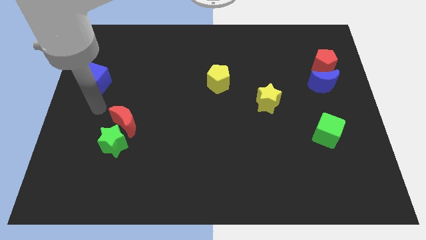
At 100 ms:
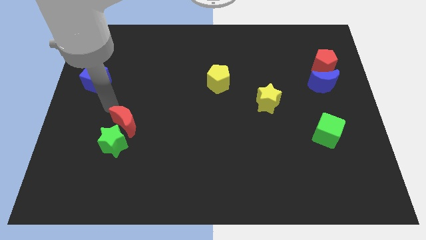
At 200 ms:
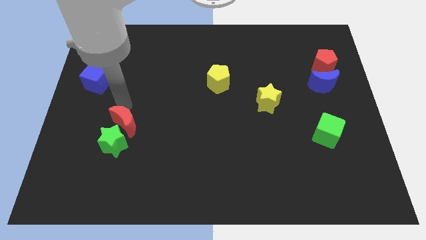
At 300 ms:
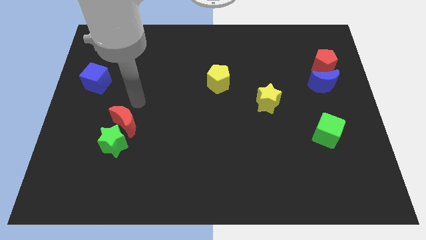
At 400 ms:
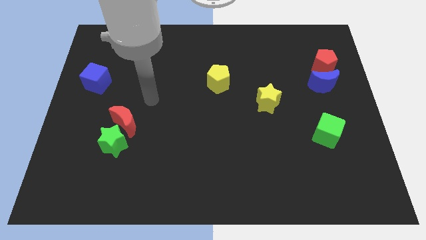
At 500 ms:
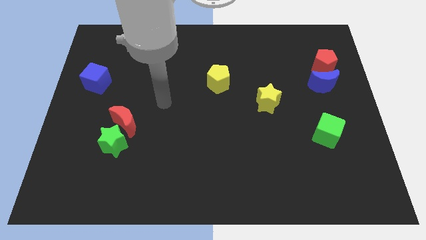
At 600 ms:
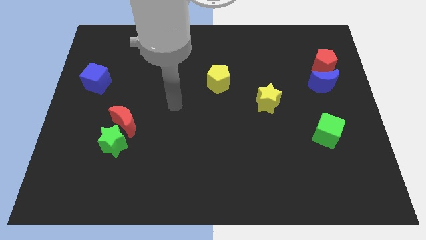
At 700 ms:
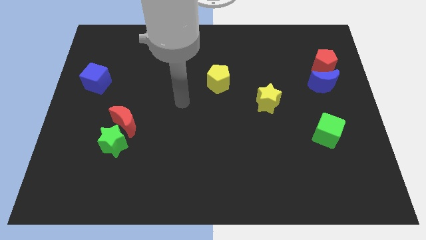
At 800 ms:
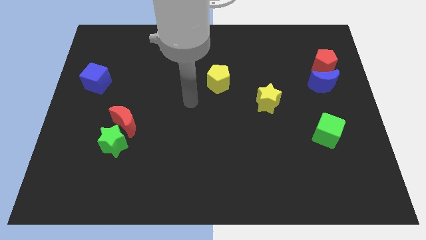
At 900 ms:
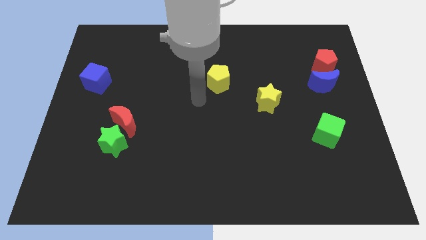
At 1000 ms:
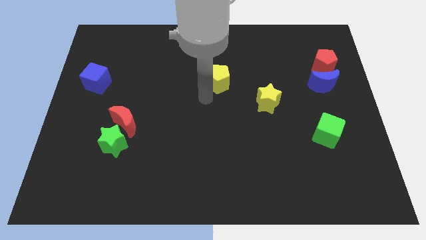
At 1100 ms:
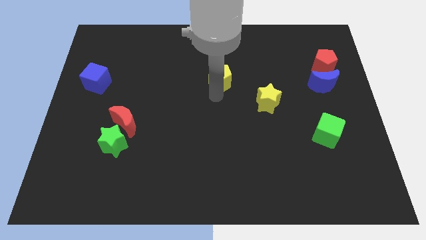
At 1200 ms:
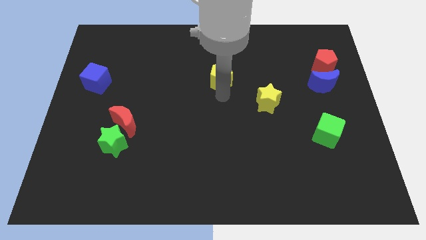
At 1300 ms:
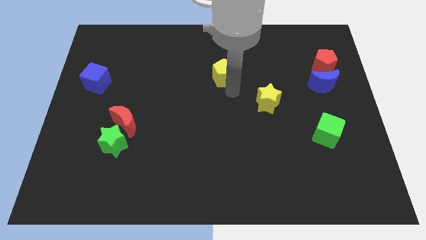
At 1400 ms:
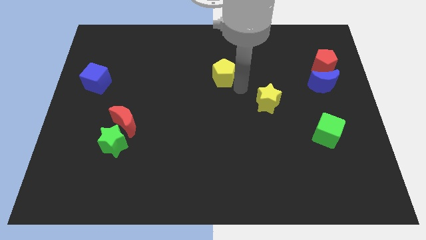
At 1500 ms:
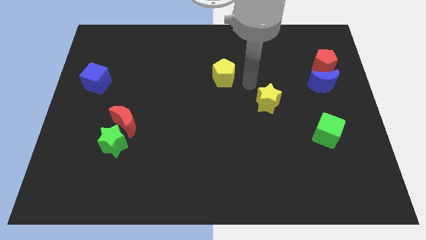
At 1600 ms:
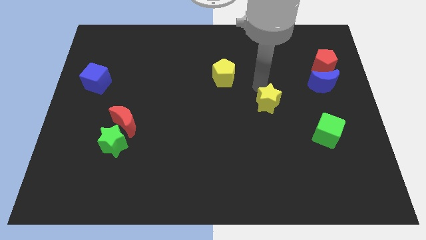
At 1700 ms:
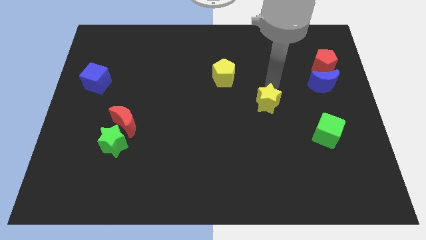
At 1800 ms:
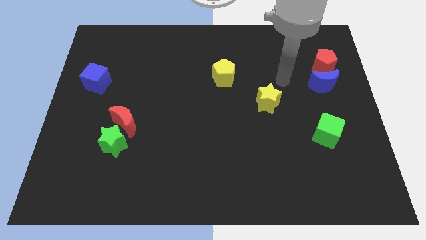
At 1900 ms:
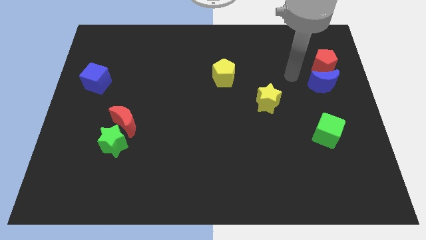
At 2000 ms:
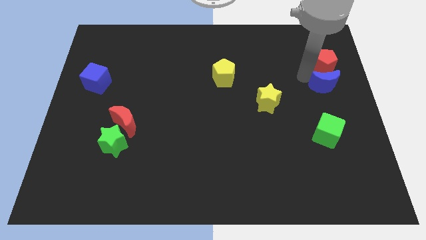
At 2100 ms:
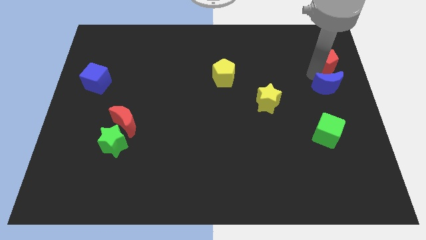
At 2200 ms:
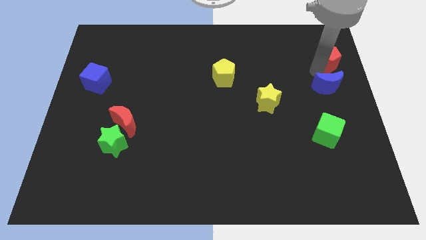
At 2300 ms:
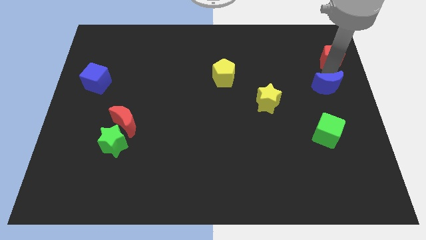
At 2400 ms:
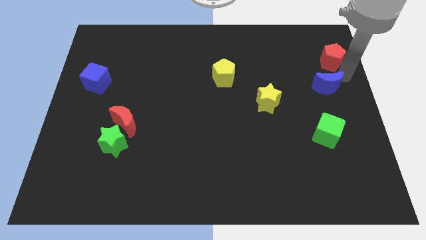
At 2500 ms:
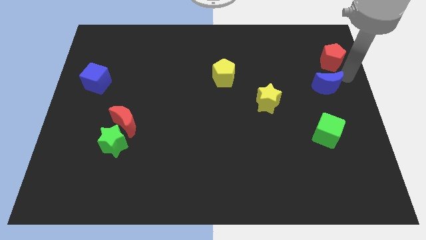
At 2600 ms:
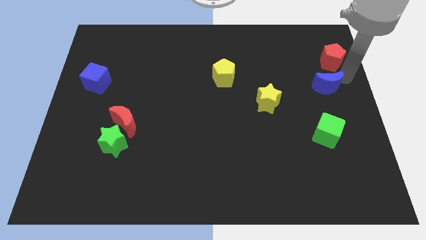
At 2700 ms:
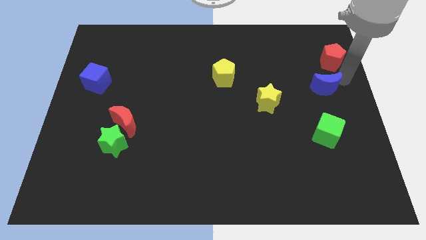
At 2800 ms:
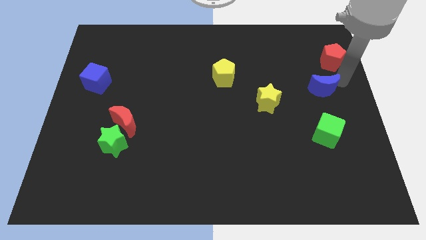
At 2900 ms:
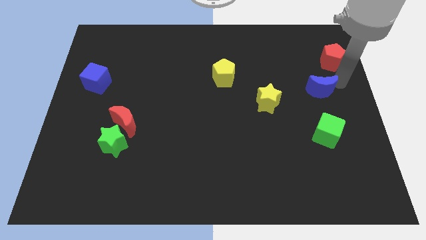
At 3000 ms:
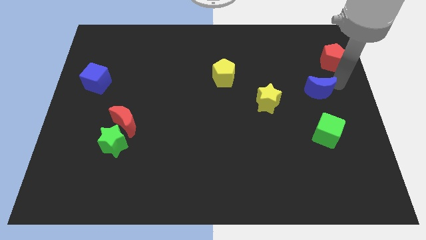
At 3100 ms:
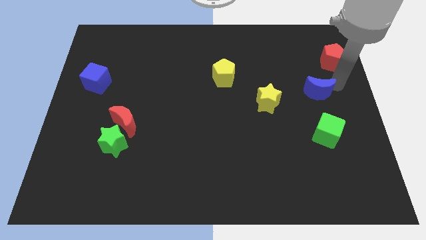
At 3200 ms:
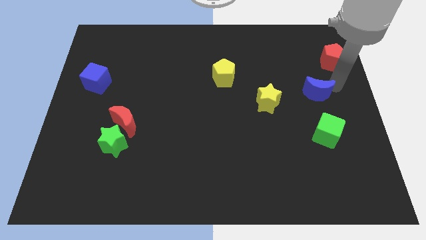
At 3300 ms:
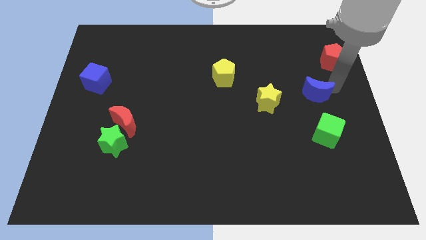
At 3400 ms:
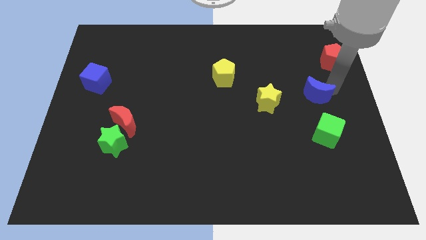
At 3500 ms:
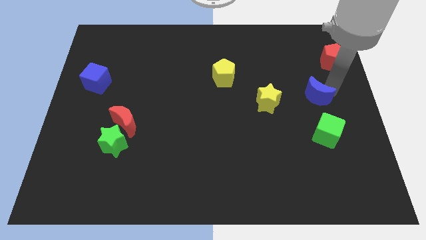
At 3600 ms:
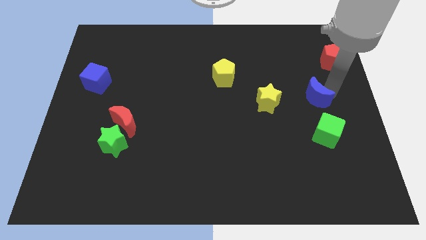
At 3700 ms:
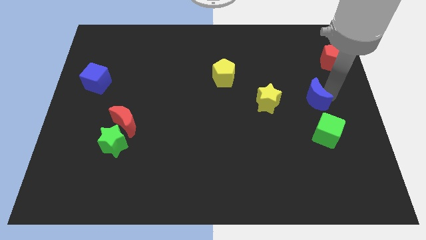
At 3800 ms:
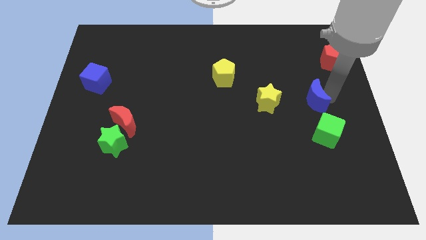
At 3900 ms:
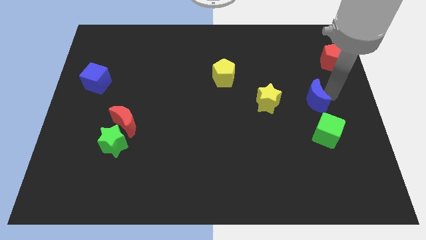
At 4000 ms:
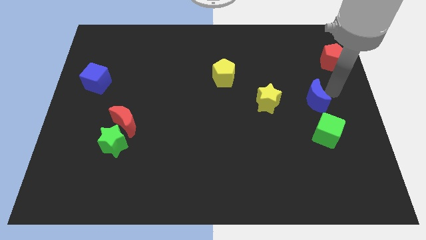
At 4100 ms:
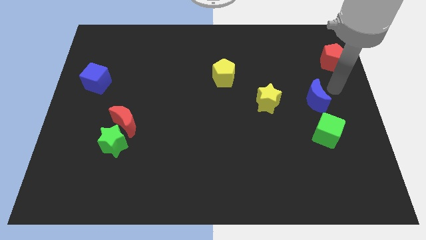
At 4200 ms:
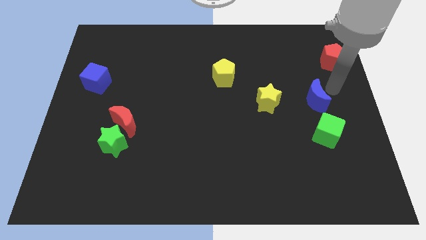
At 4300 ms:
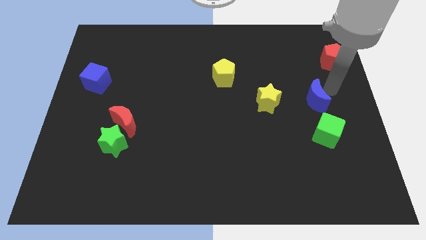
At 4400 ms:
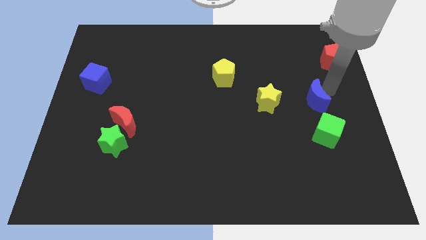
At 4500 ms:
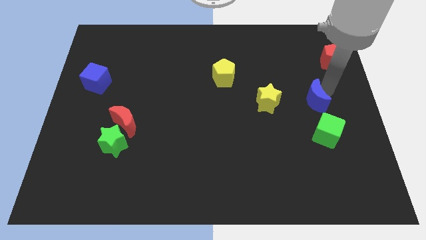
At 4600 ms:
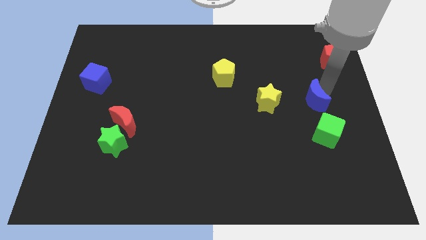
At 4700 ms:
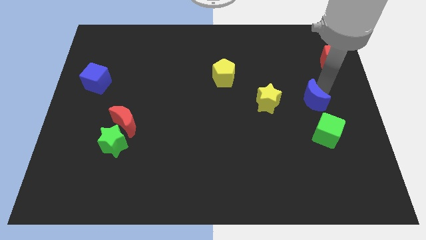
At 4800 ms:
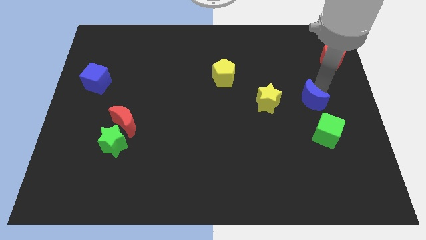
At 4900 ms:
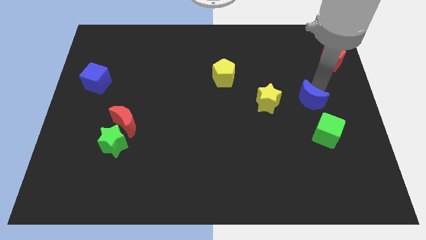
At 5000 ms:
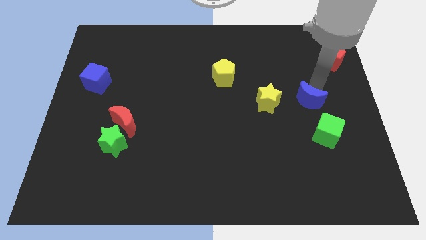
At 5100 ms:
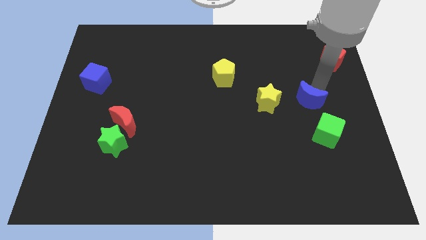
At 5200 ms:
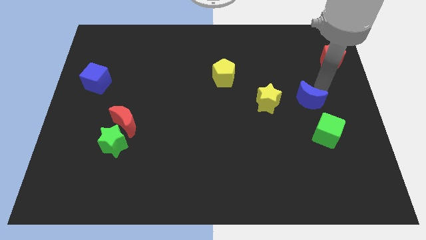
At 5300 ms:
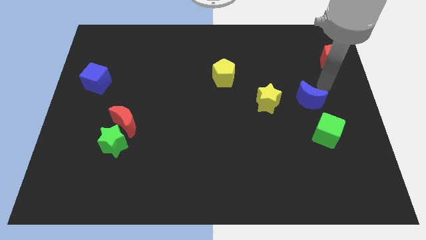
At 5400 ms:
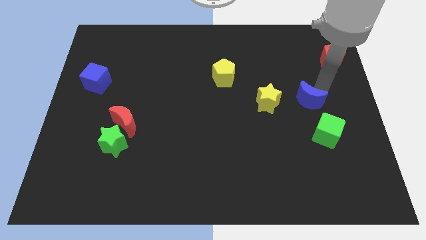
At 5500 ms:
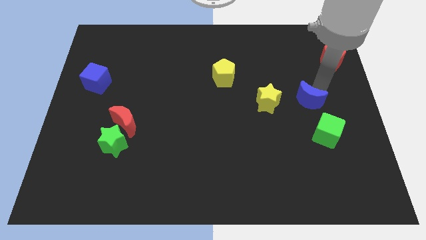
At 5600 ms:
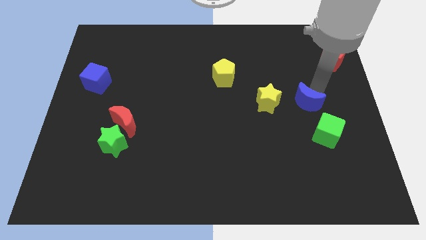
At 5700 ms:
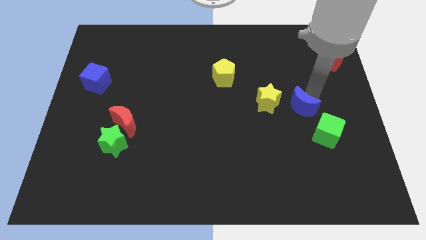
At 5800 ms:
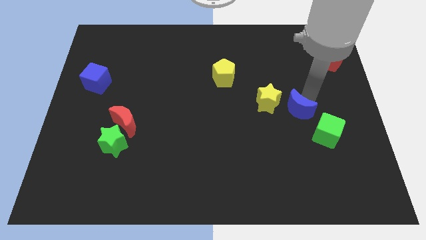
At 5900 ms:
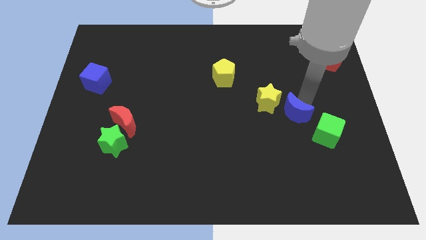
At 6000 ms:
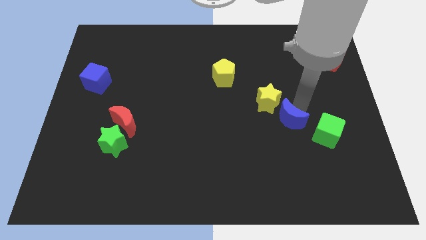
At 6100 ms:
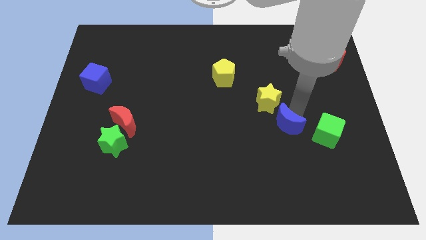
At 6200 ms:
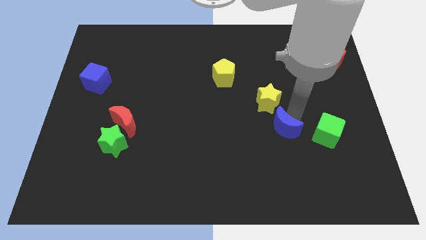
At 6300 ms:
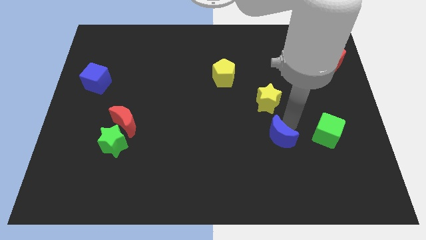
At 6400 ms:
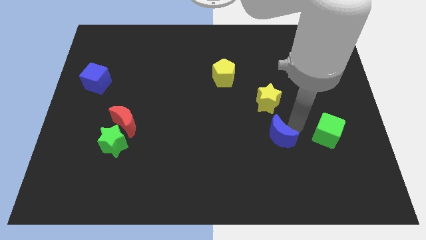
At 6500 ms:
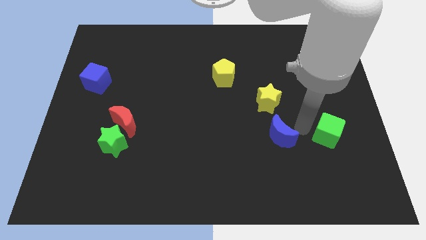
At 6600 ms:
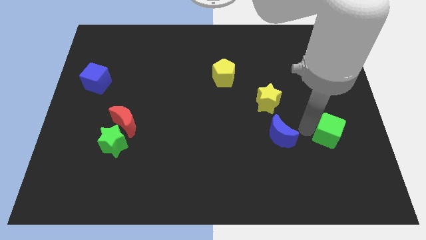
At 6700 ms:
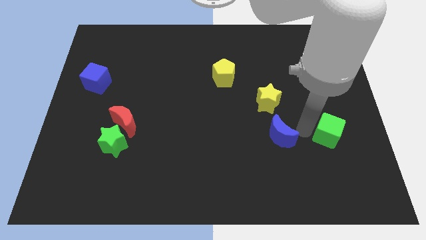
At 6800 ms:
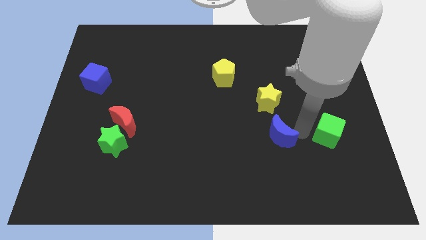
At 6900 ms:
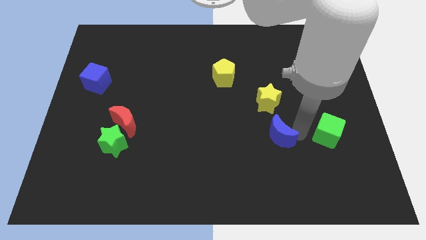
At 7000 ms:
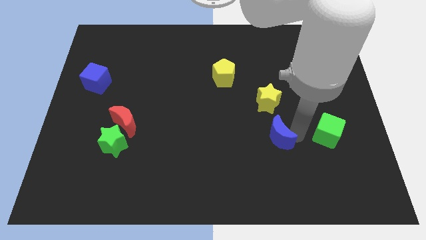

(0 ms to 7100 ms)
slide the blue moon downwards and to the left diagonally

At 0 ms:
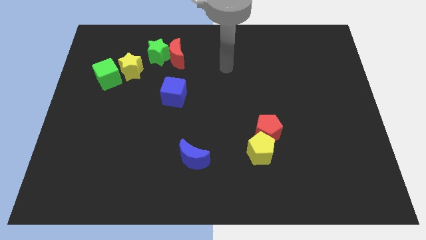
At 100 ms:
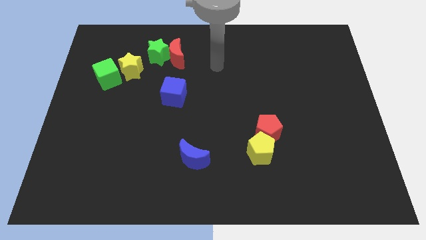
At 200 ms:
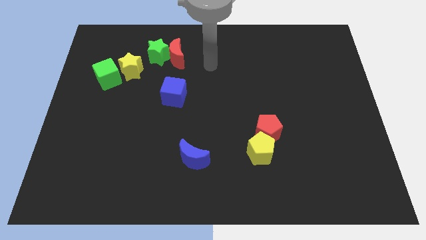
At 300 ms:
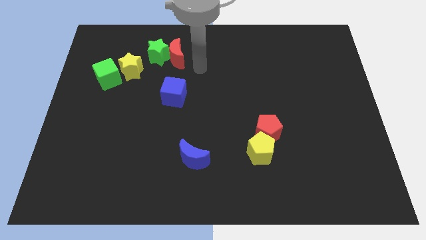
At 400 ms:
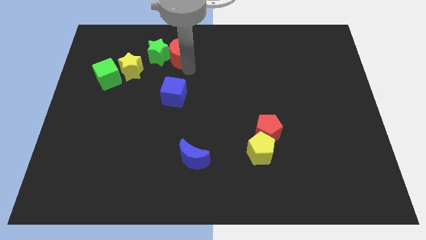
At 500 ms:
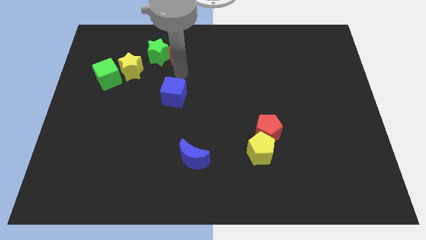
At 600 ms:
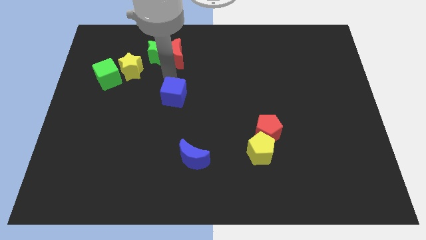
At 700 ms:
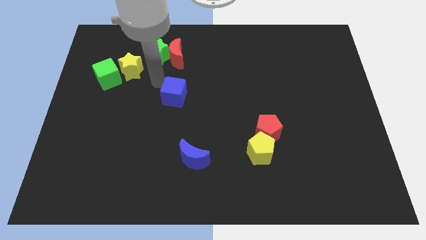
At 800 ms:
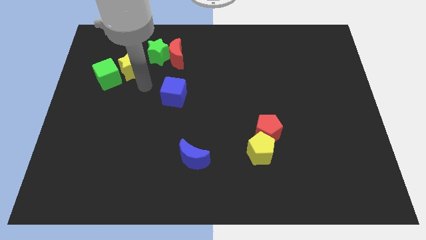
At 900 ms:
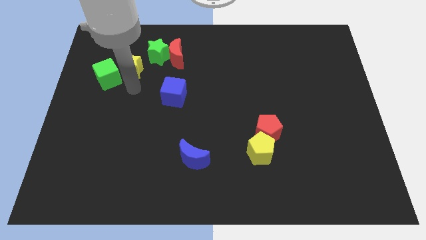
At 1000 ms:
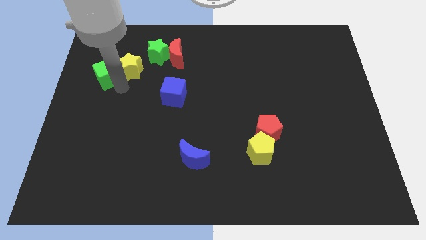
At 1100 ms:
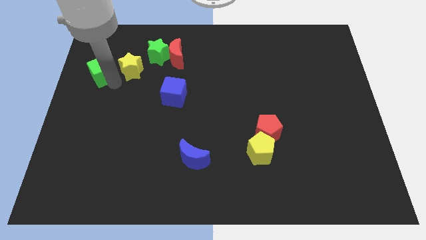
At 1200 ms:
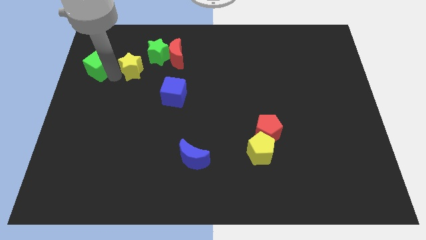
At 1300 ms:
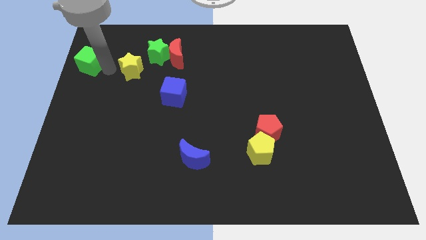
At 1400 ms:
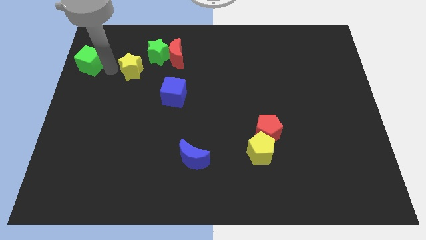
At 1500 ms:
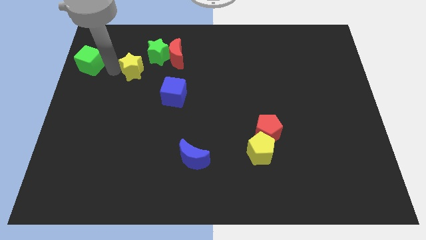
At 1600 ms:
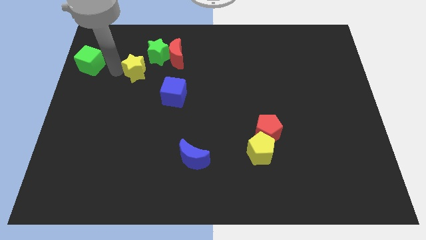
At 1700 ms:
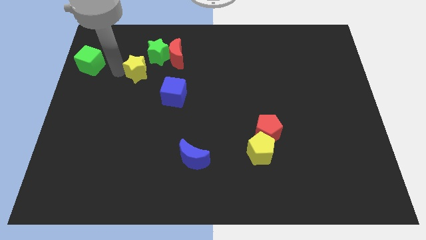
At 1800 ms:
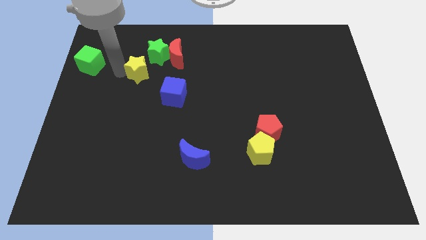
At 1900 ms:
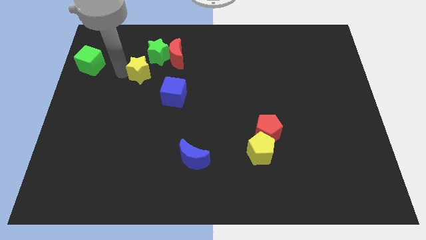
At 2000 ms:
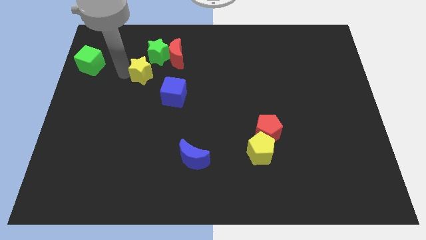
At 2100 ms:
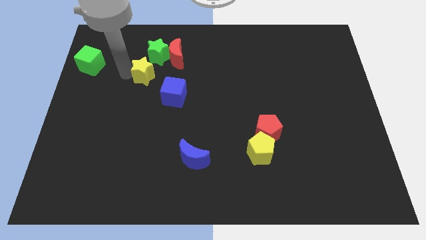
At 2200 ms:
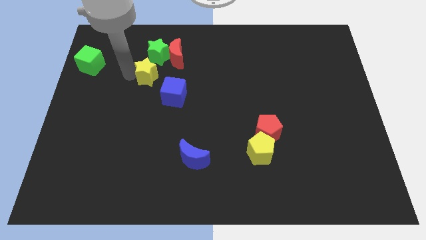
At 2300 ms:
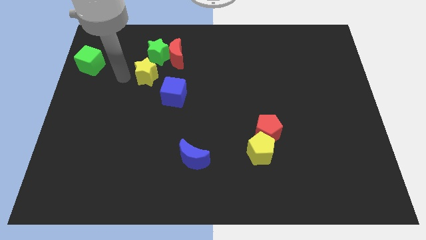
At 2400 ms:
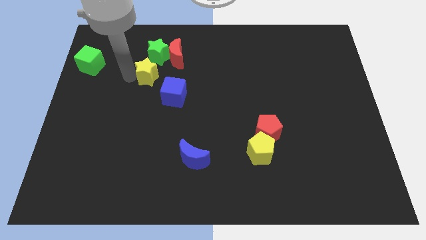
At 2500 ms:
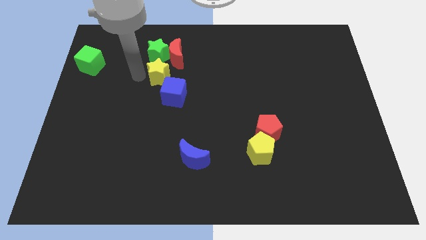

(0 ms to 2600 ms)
slightly slide the yellow star right
